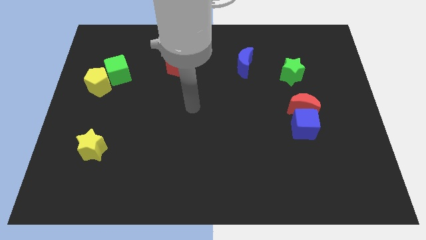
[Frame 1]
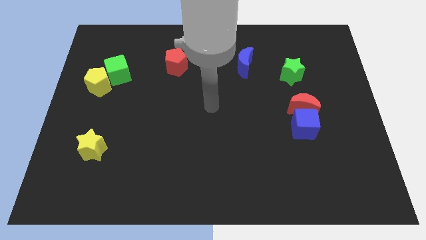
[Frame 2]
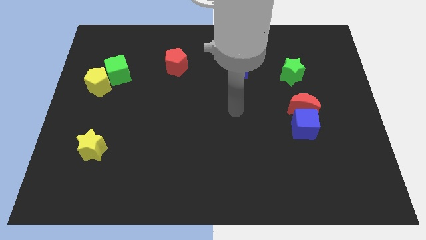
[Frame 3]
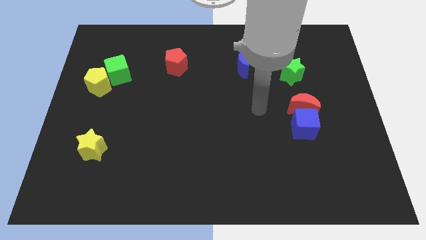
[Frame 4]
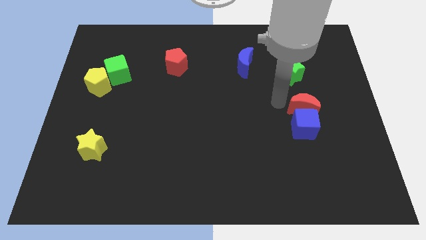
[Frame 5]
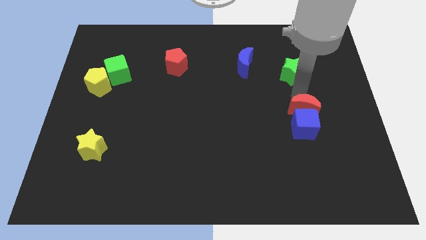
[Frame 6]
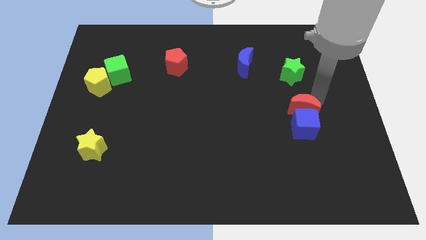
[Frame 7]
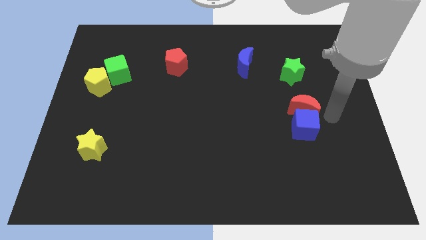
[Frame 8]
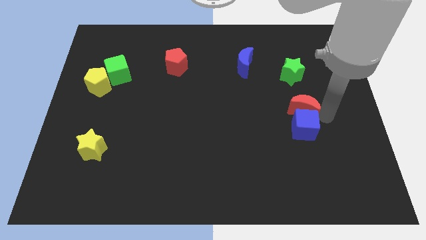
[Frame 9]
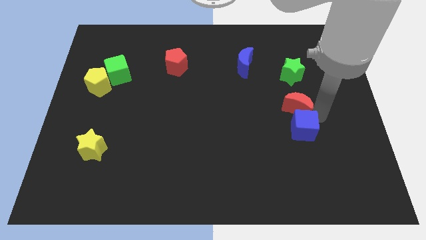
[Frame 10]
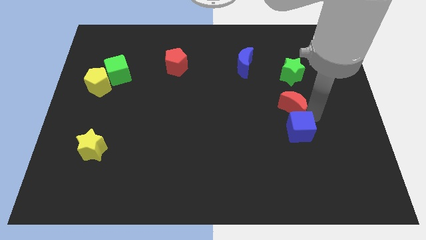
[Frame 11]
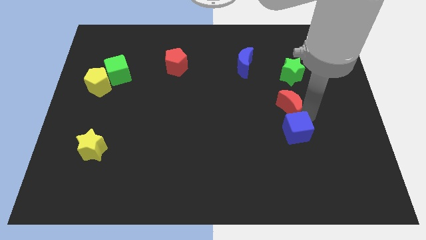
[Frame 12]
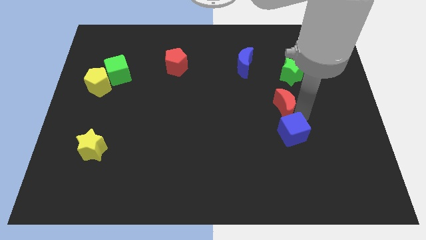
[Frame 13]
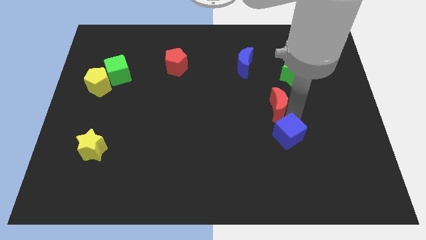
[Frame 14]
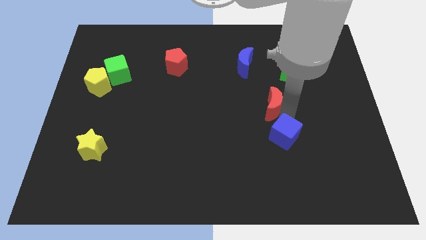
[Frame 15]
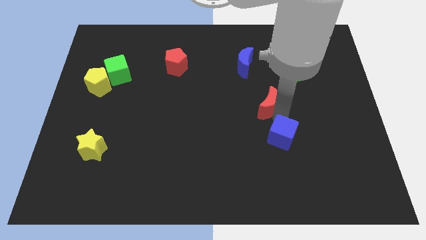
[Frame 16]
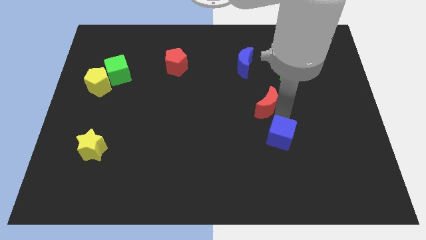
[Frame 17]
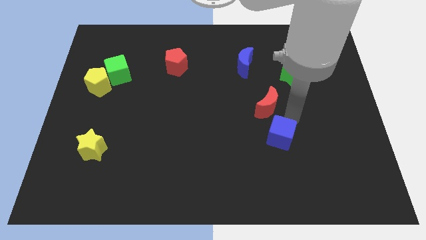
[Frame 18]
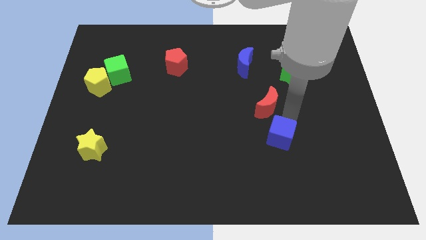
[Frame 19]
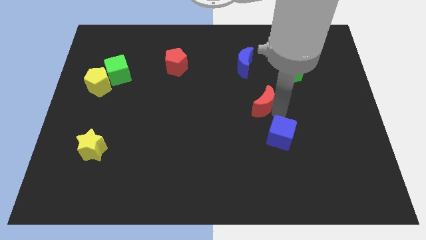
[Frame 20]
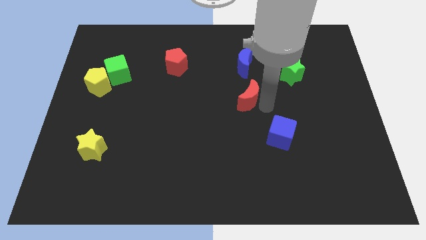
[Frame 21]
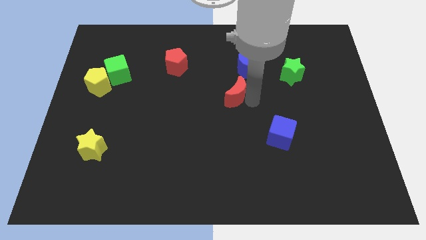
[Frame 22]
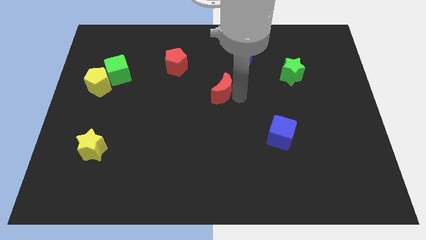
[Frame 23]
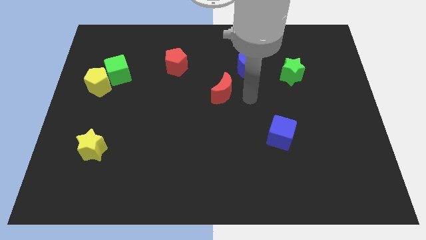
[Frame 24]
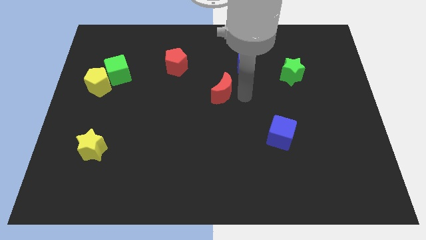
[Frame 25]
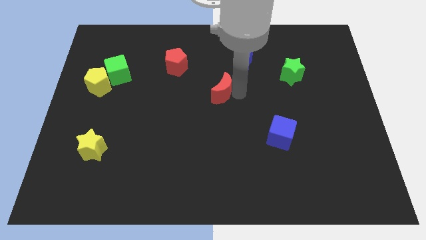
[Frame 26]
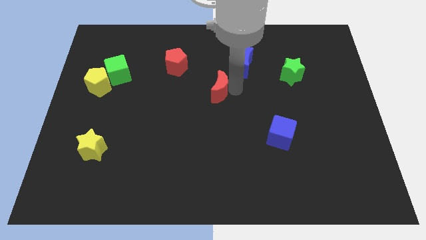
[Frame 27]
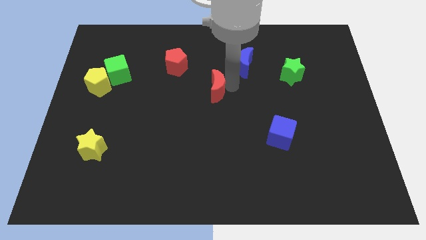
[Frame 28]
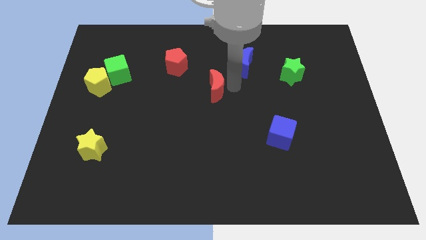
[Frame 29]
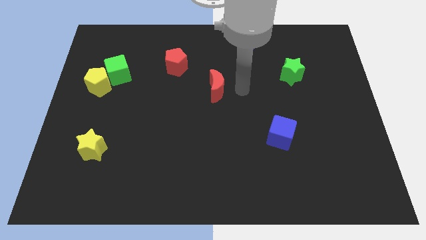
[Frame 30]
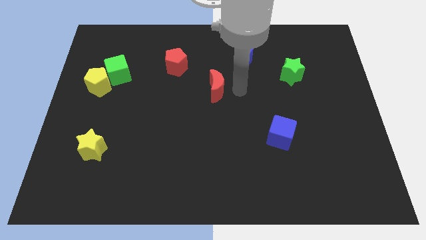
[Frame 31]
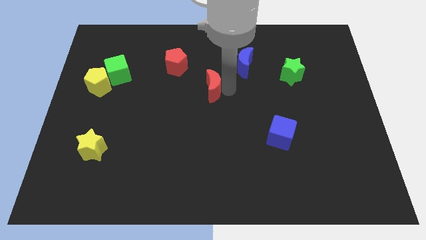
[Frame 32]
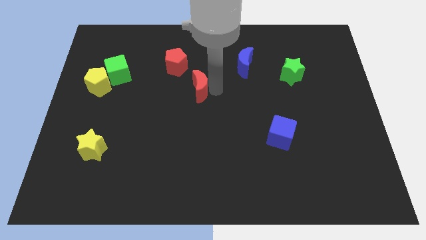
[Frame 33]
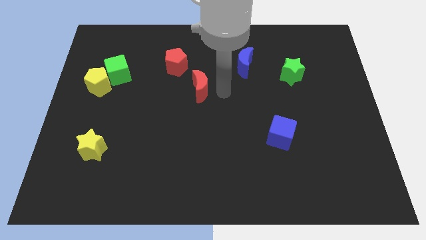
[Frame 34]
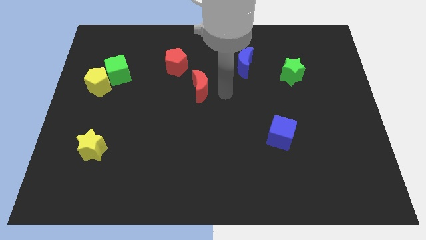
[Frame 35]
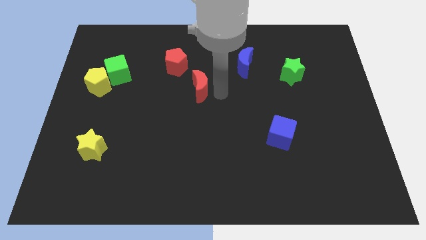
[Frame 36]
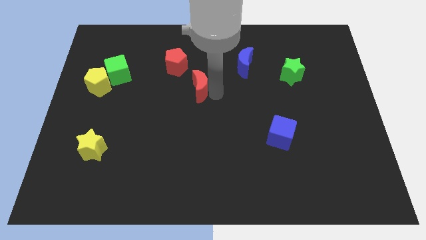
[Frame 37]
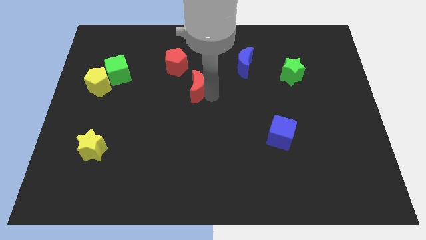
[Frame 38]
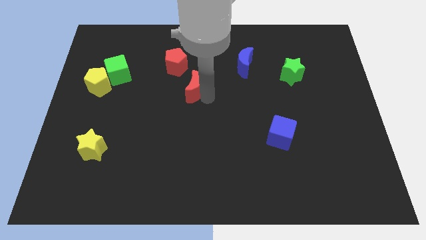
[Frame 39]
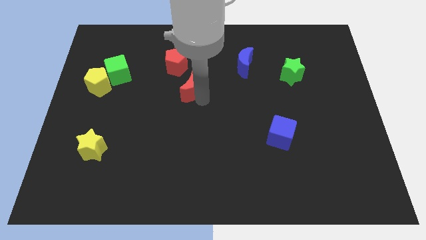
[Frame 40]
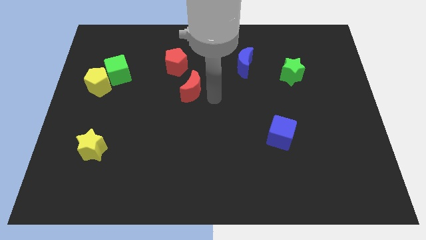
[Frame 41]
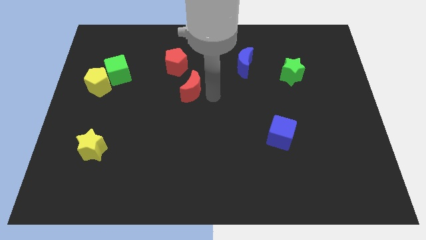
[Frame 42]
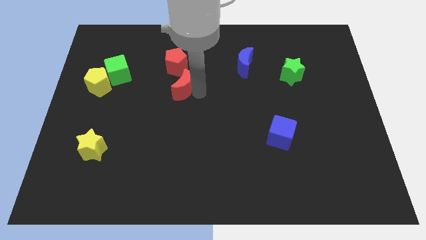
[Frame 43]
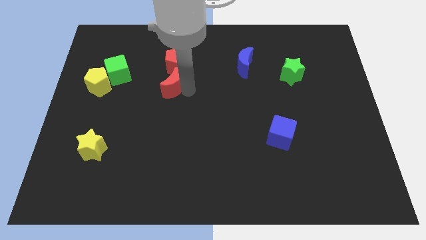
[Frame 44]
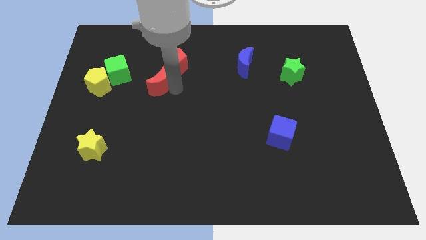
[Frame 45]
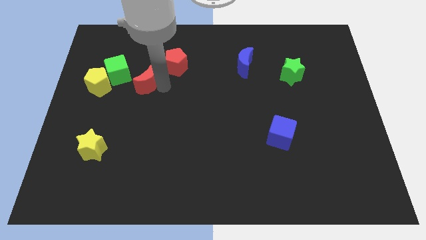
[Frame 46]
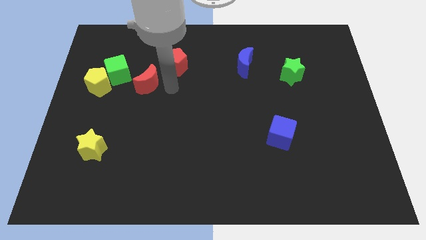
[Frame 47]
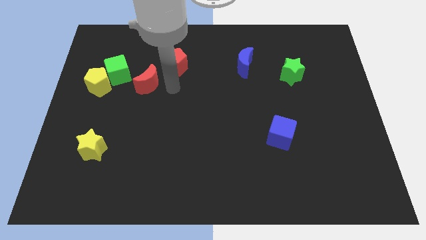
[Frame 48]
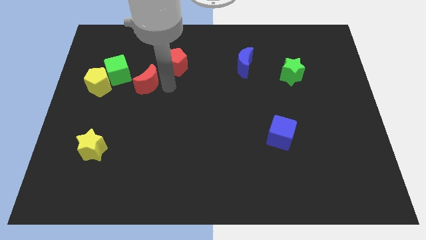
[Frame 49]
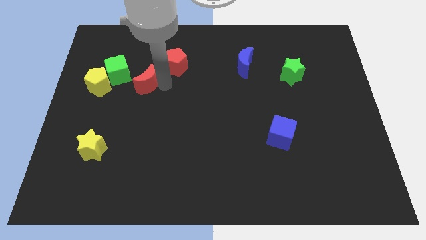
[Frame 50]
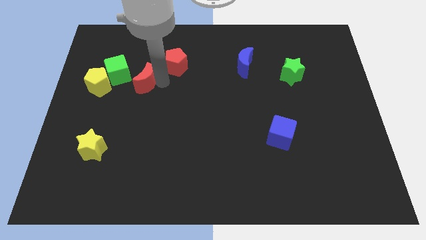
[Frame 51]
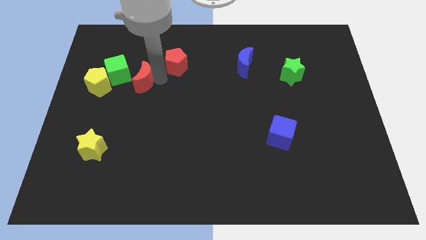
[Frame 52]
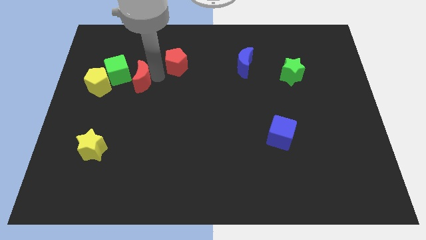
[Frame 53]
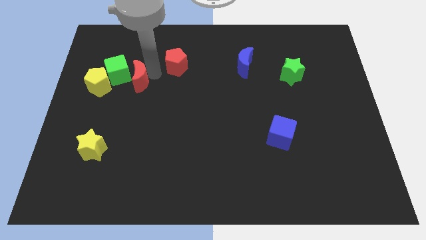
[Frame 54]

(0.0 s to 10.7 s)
move the red moon next to the green cube

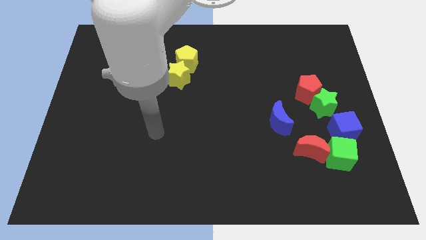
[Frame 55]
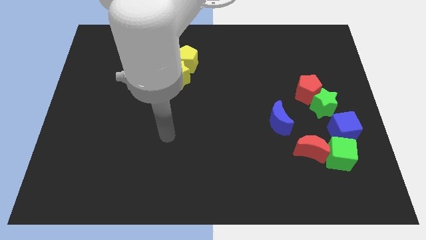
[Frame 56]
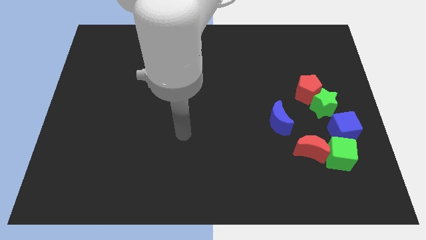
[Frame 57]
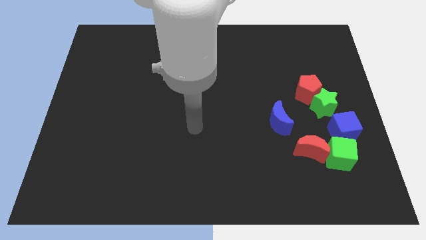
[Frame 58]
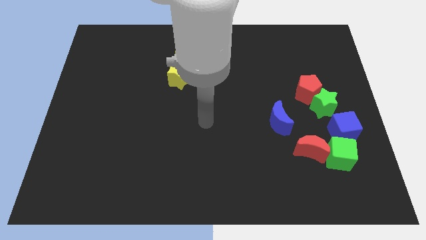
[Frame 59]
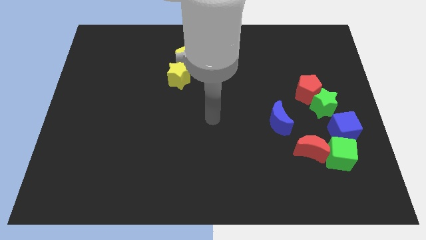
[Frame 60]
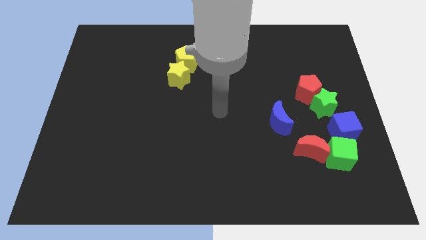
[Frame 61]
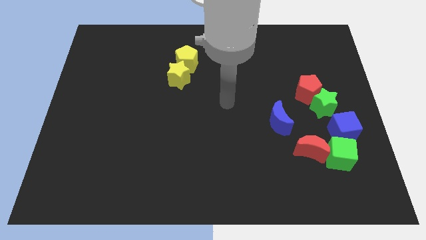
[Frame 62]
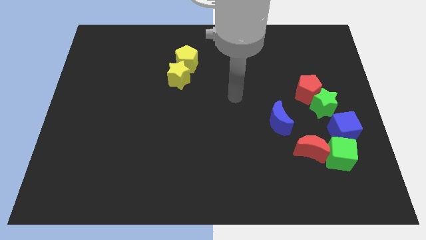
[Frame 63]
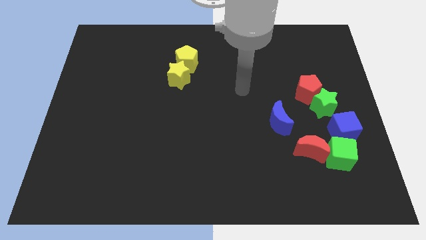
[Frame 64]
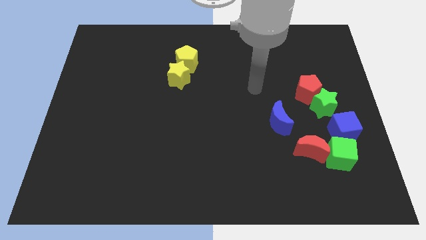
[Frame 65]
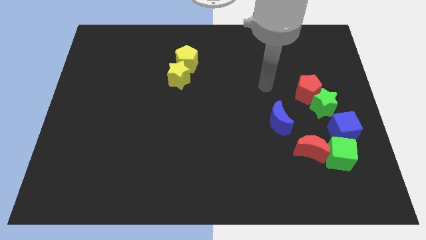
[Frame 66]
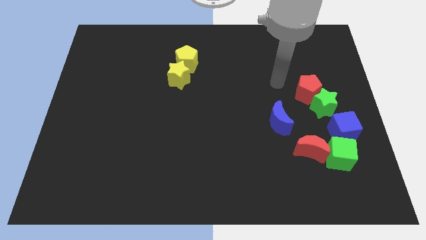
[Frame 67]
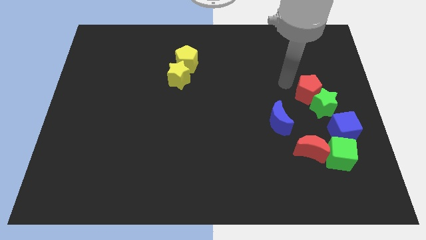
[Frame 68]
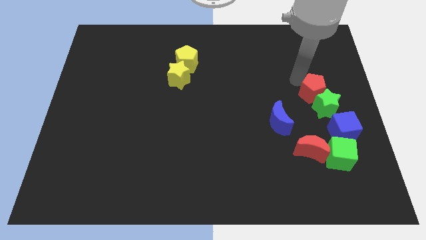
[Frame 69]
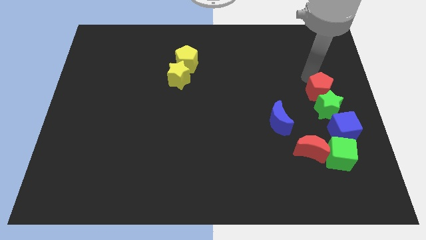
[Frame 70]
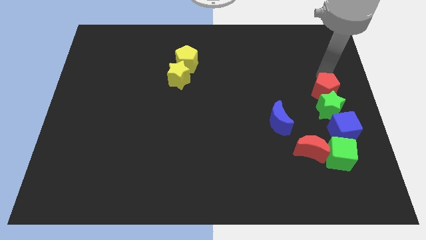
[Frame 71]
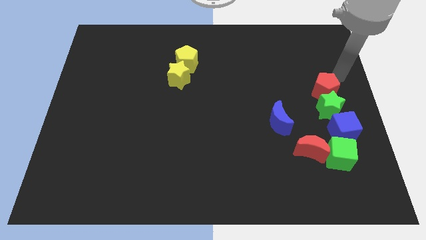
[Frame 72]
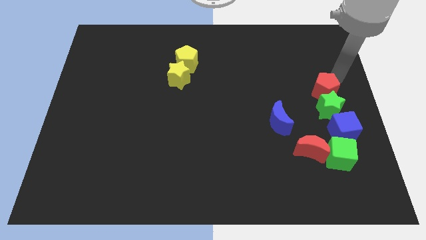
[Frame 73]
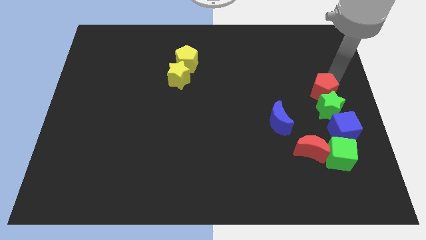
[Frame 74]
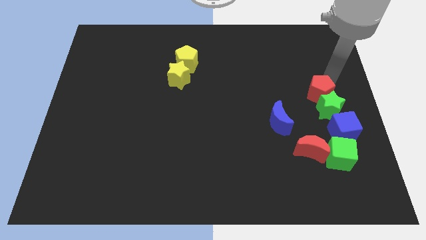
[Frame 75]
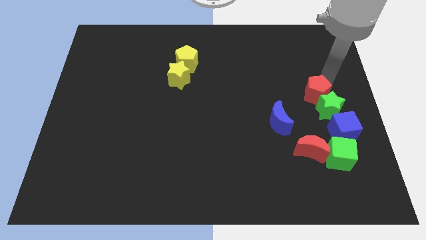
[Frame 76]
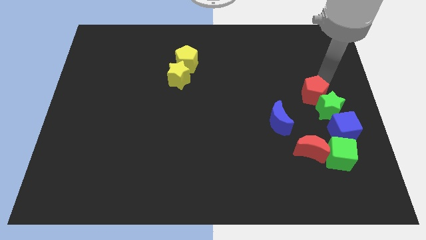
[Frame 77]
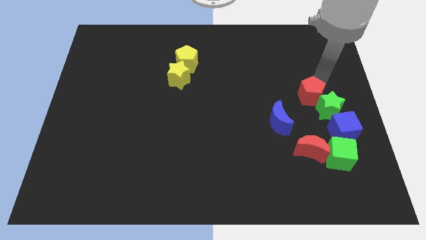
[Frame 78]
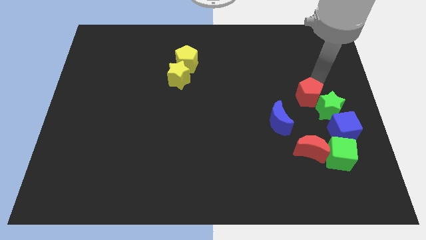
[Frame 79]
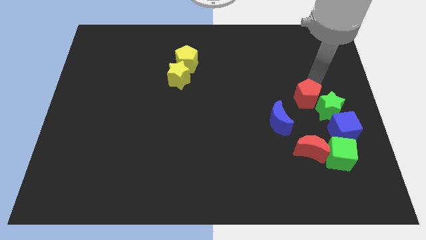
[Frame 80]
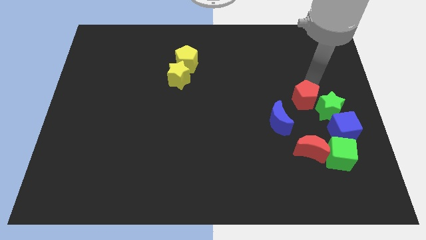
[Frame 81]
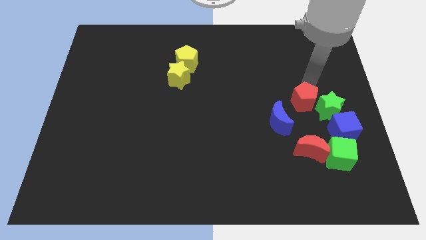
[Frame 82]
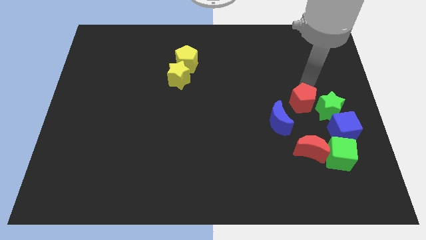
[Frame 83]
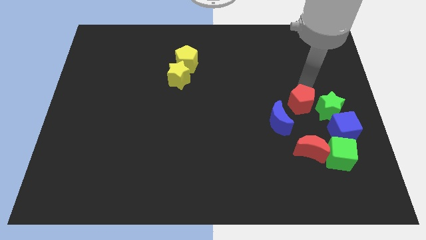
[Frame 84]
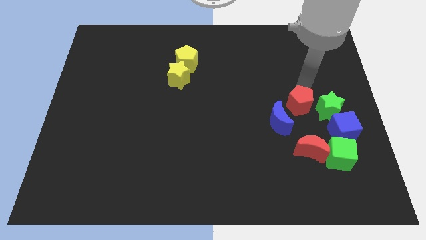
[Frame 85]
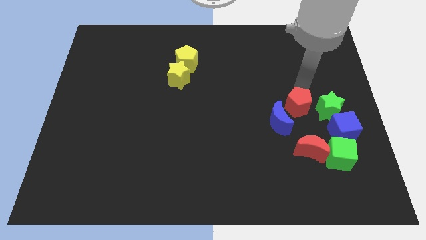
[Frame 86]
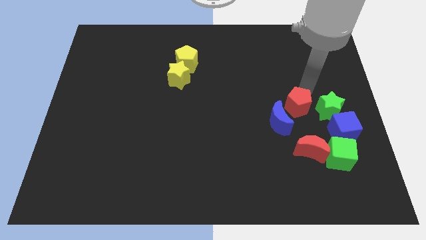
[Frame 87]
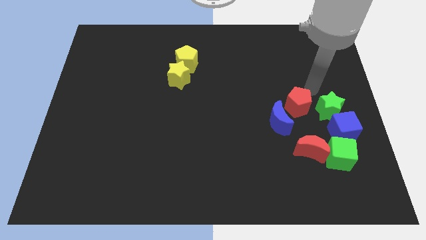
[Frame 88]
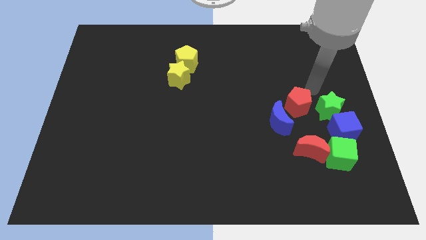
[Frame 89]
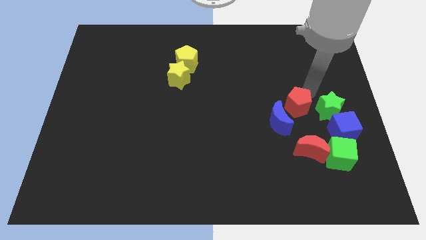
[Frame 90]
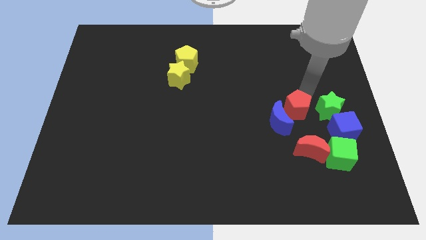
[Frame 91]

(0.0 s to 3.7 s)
slide the red pentagon to the blue moon
